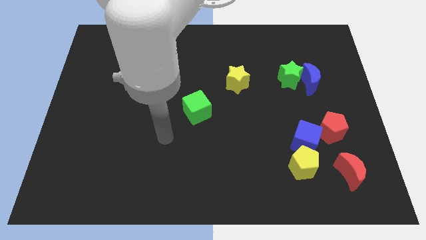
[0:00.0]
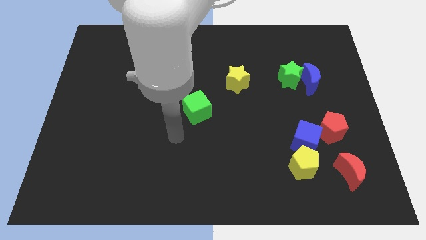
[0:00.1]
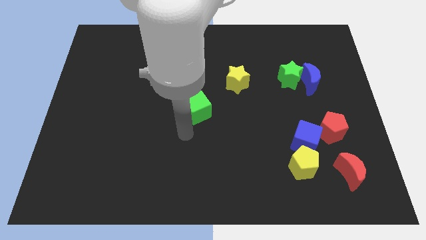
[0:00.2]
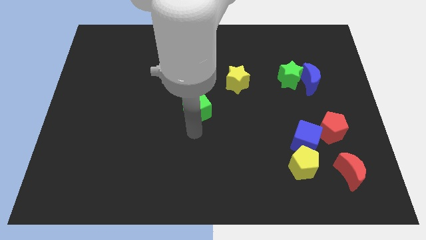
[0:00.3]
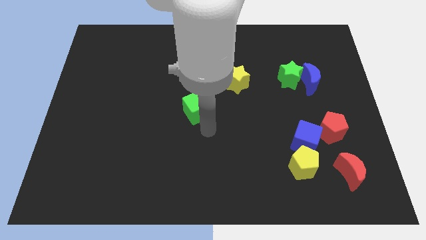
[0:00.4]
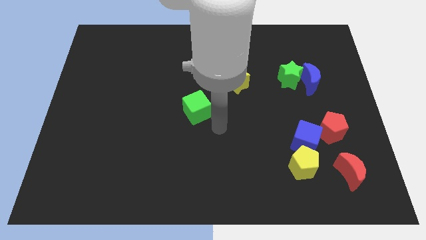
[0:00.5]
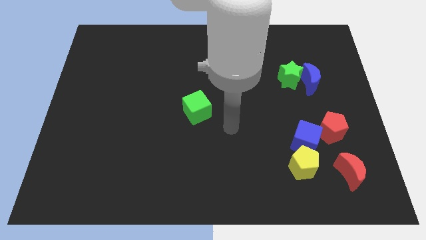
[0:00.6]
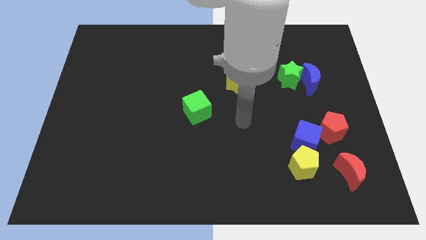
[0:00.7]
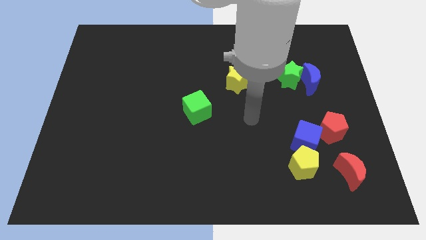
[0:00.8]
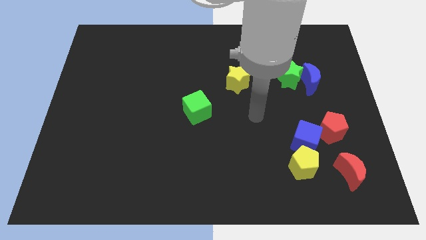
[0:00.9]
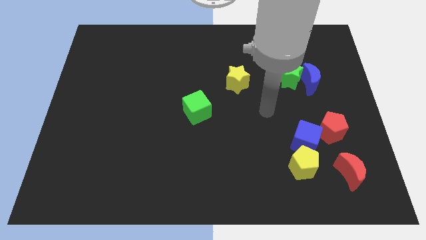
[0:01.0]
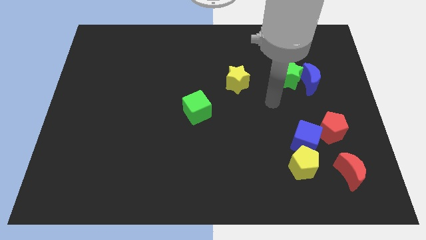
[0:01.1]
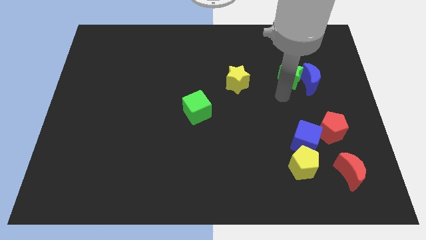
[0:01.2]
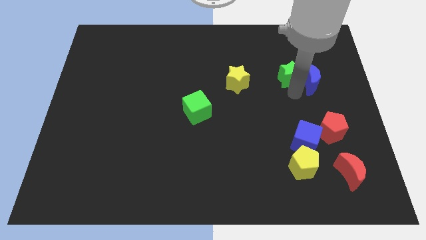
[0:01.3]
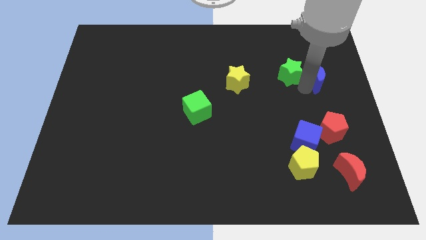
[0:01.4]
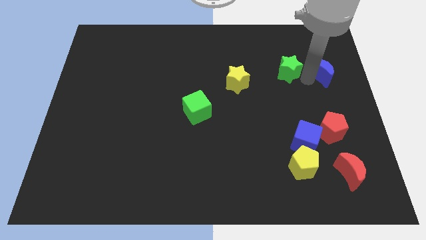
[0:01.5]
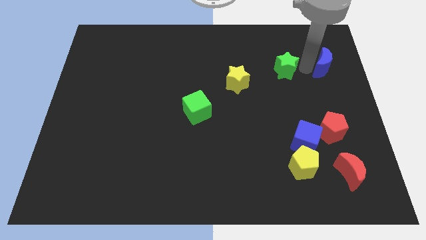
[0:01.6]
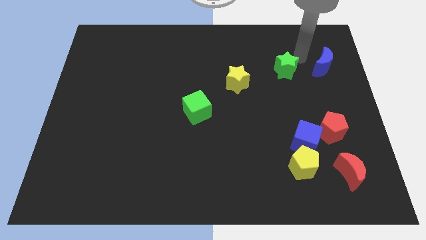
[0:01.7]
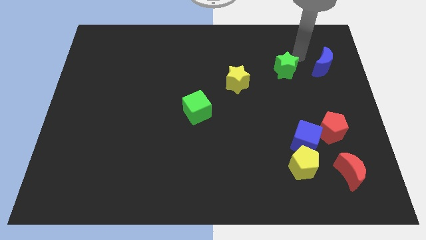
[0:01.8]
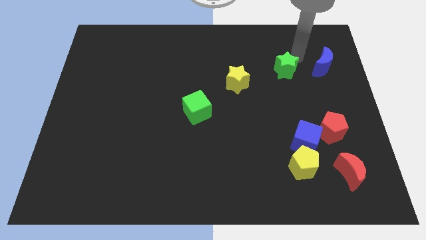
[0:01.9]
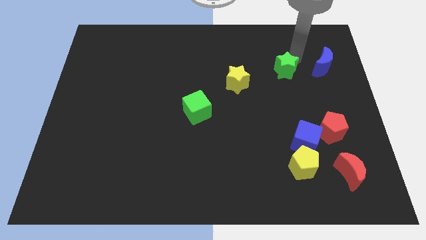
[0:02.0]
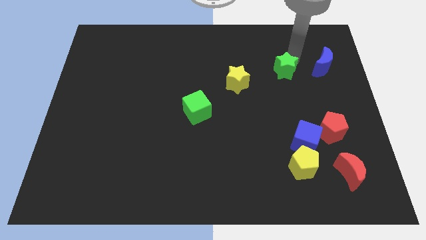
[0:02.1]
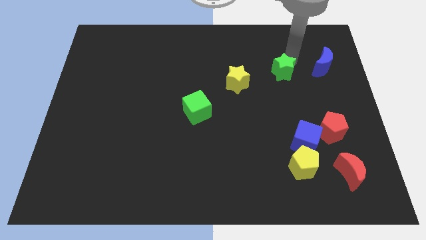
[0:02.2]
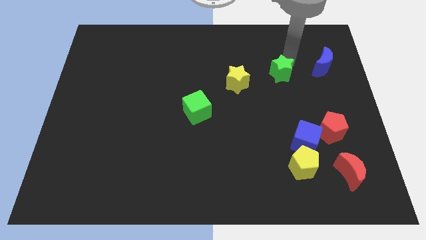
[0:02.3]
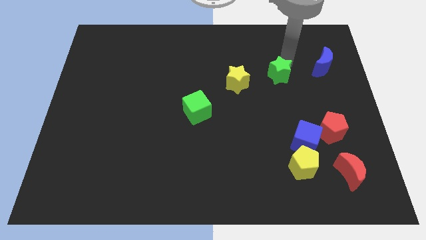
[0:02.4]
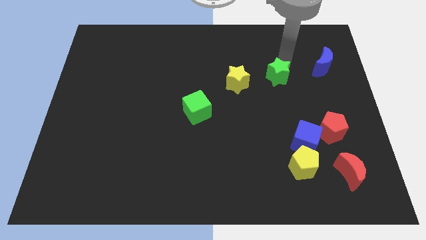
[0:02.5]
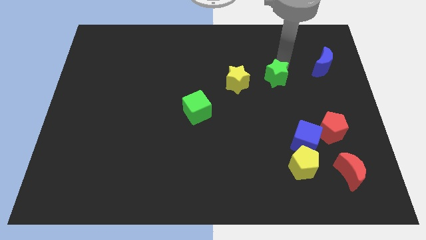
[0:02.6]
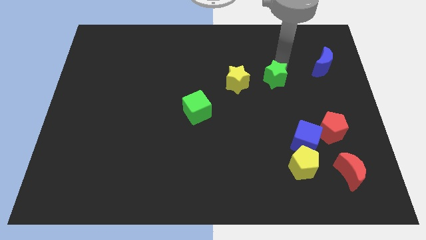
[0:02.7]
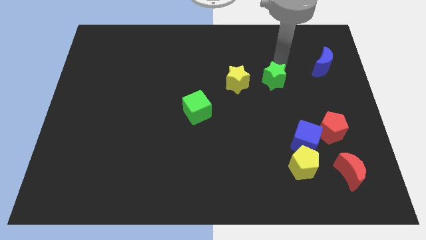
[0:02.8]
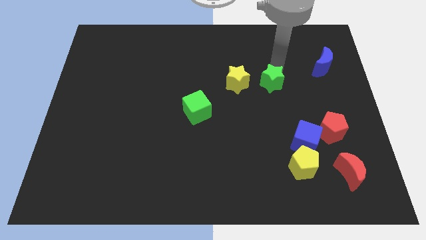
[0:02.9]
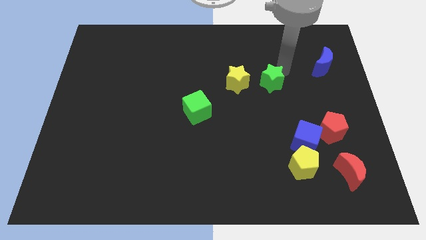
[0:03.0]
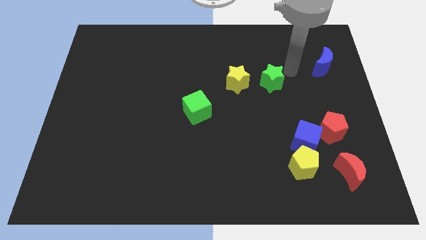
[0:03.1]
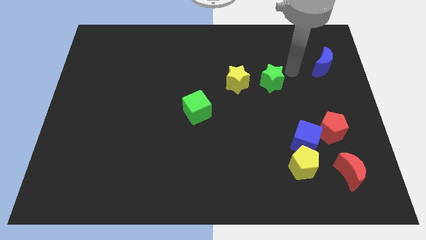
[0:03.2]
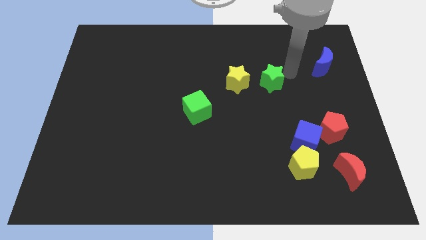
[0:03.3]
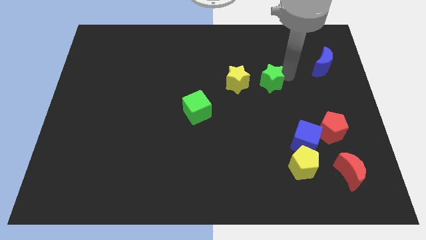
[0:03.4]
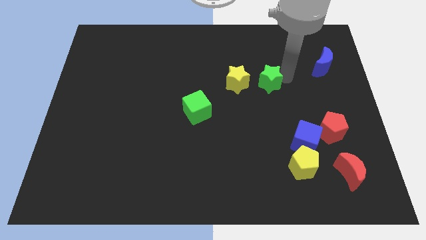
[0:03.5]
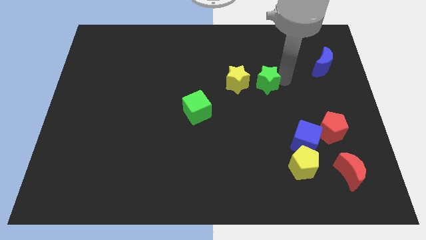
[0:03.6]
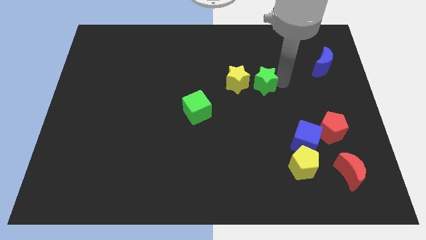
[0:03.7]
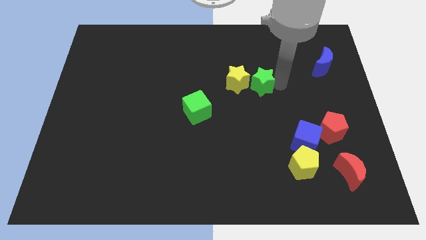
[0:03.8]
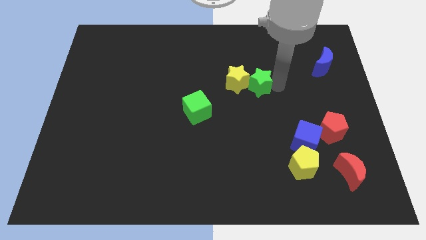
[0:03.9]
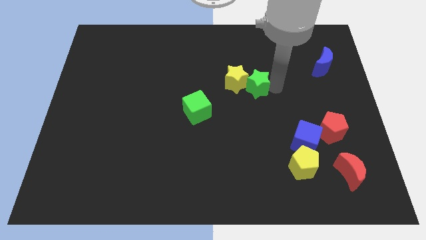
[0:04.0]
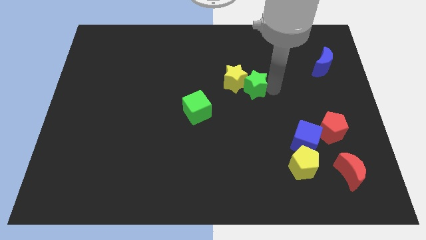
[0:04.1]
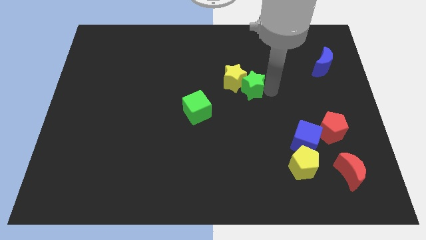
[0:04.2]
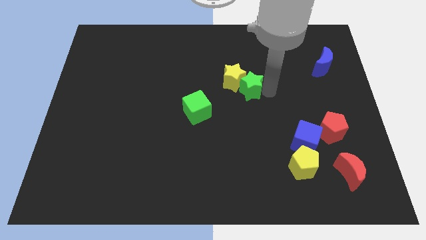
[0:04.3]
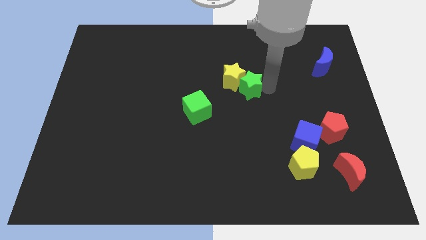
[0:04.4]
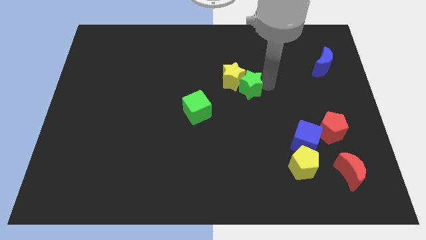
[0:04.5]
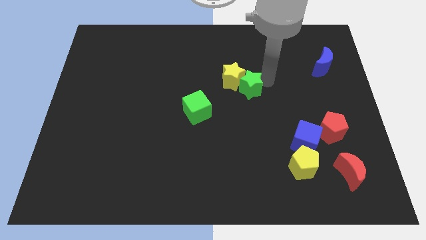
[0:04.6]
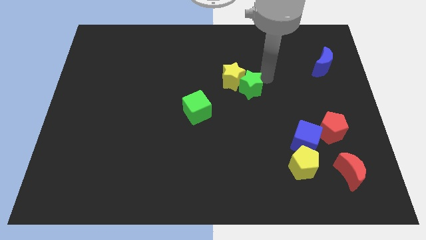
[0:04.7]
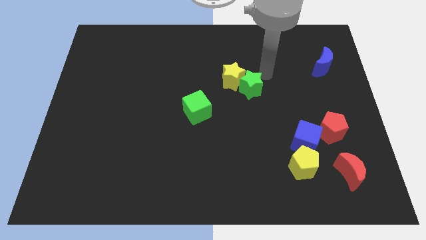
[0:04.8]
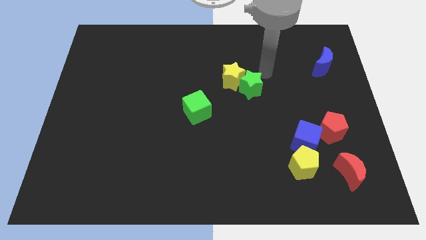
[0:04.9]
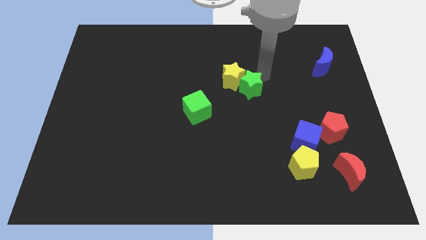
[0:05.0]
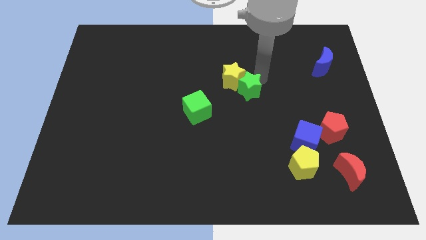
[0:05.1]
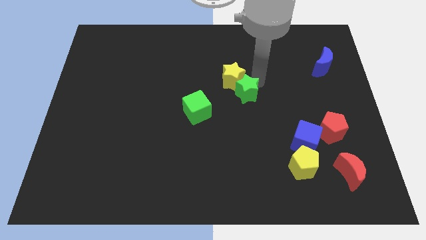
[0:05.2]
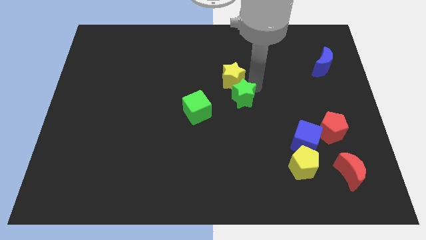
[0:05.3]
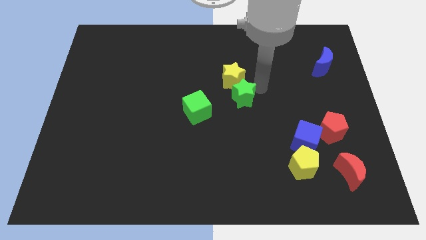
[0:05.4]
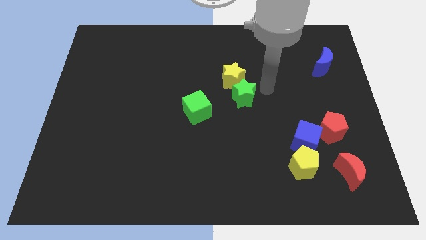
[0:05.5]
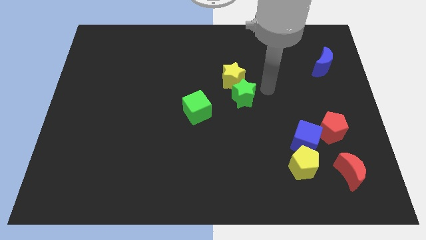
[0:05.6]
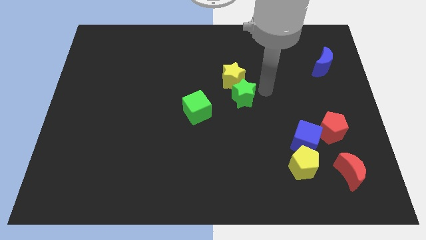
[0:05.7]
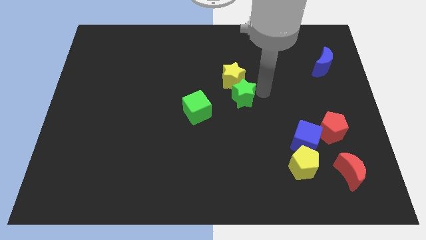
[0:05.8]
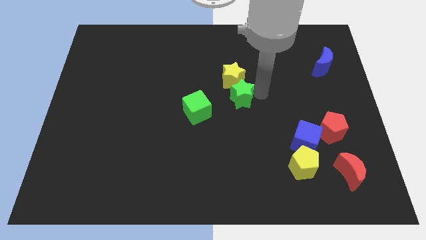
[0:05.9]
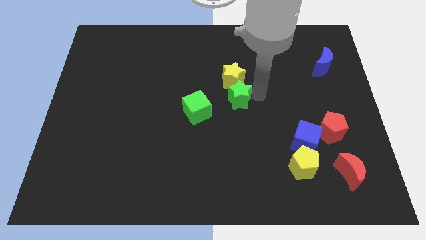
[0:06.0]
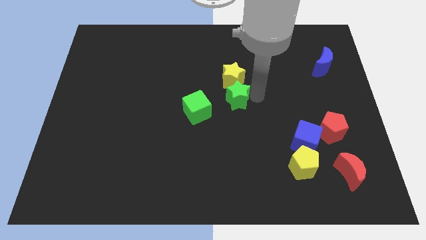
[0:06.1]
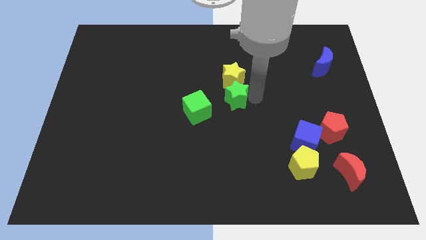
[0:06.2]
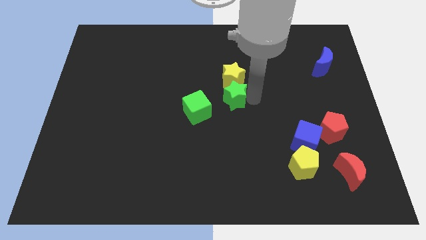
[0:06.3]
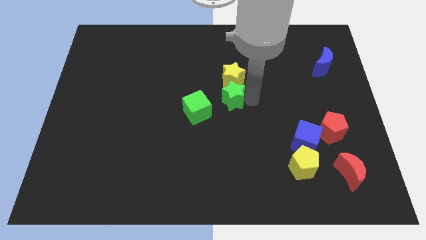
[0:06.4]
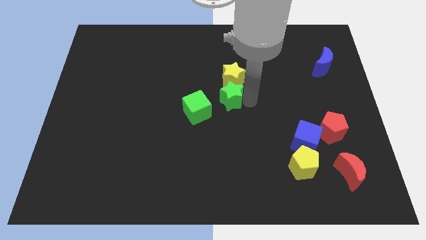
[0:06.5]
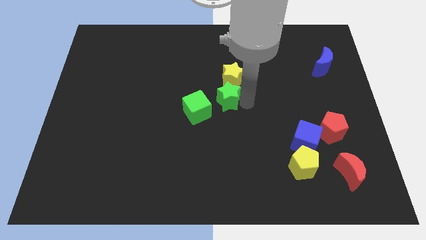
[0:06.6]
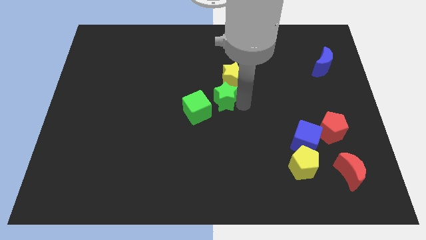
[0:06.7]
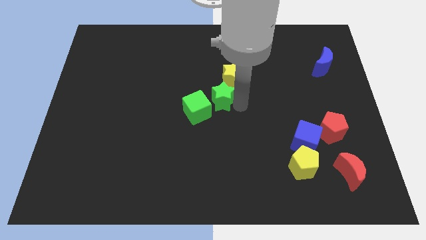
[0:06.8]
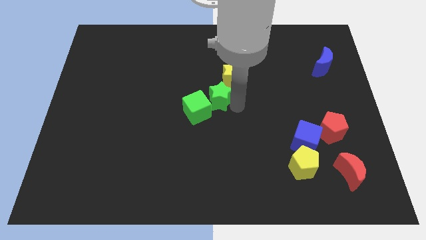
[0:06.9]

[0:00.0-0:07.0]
put the green star towards the green cube
